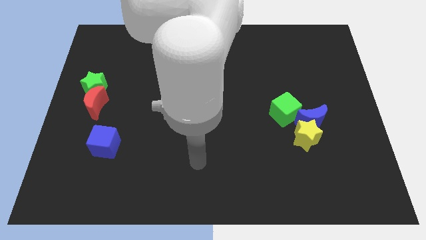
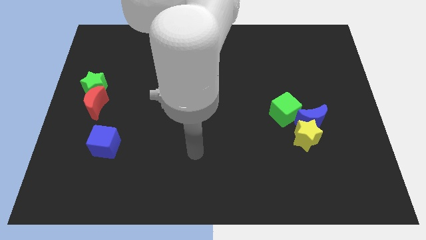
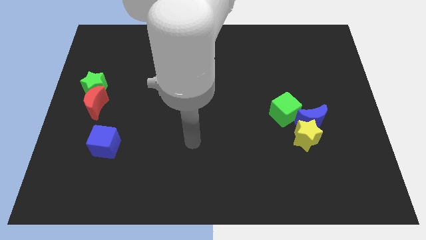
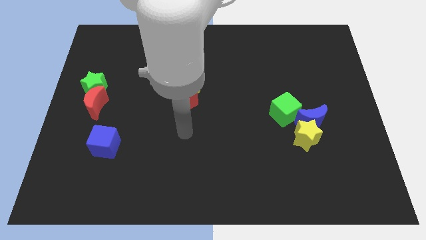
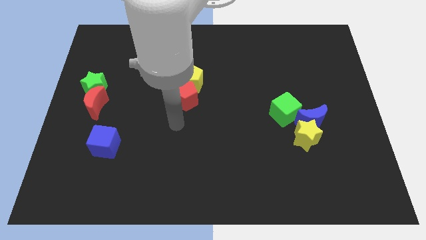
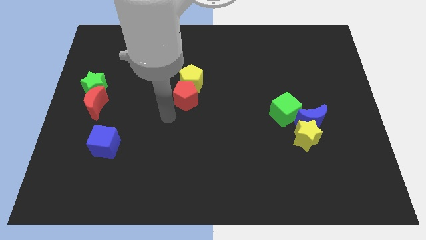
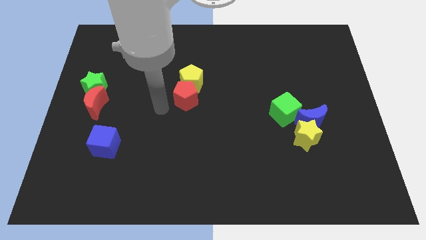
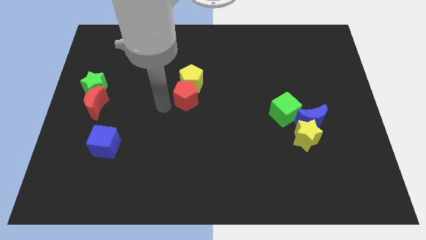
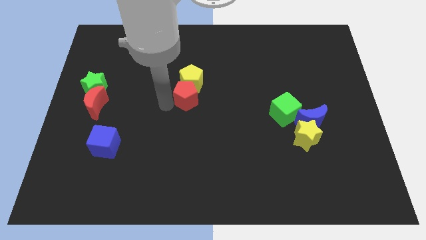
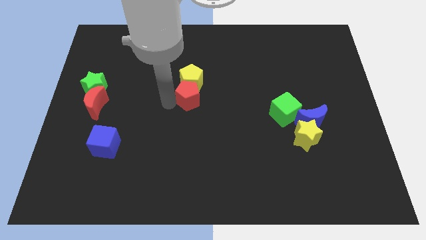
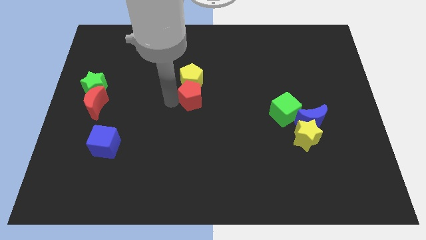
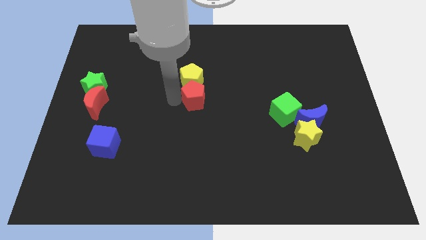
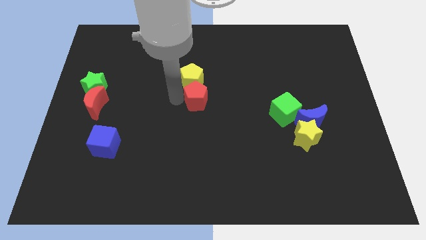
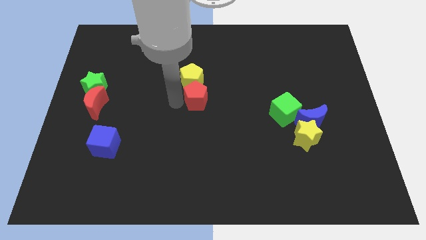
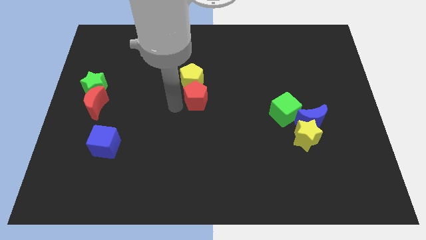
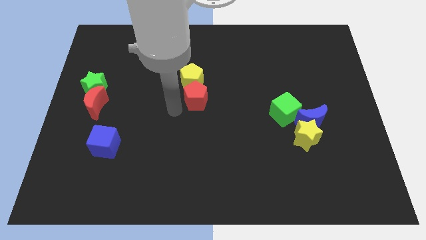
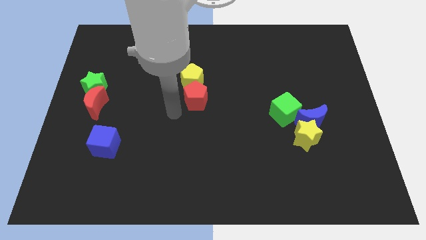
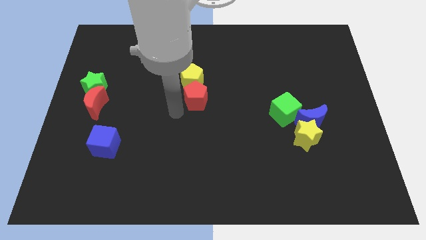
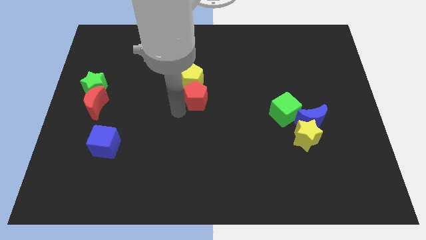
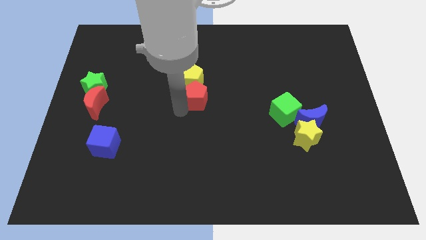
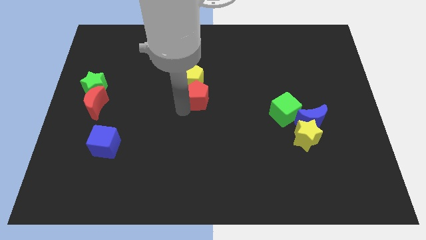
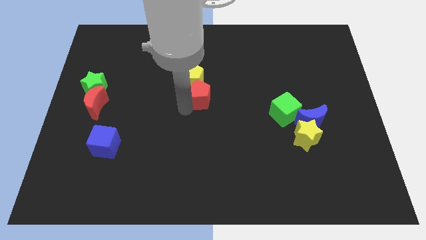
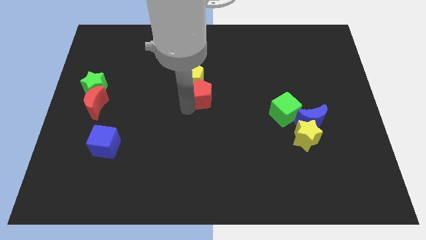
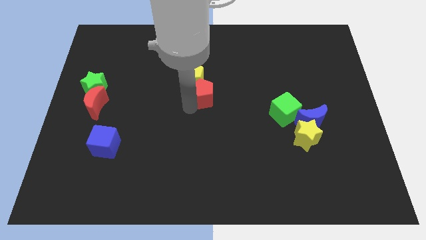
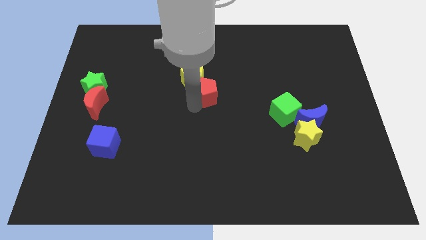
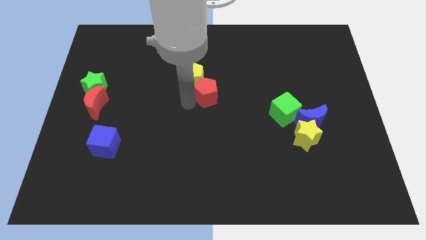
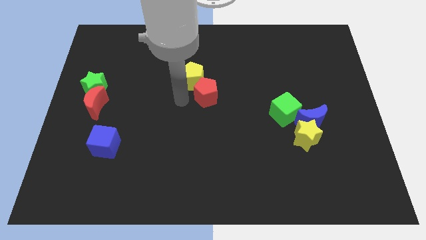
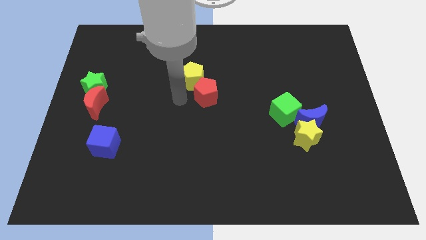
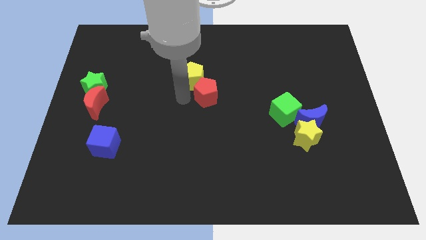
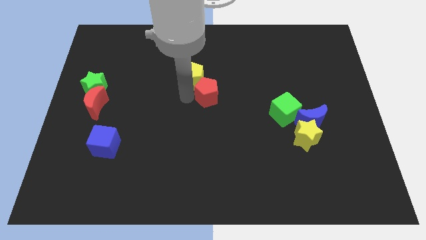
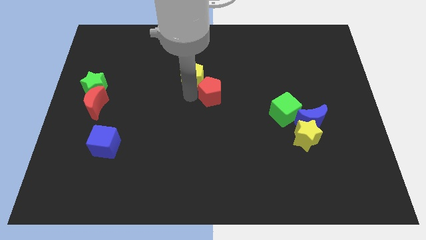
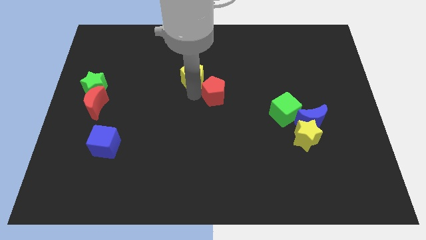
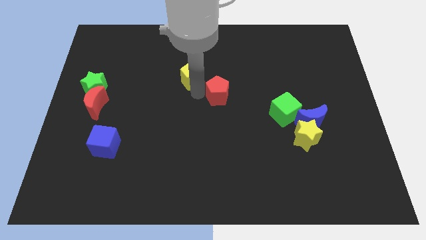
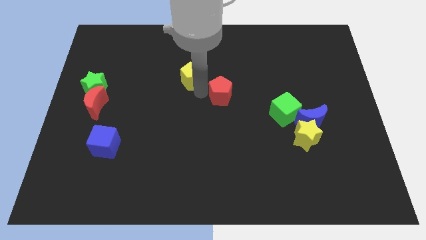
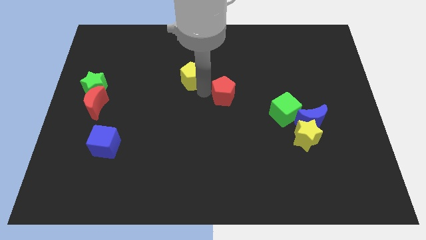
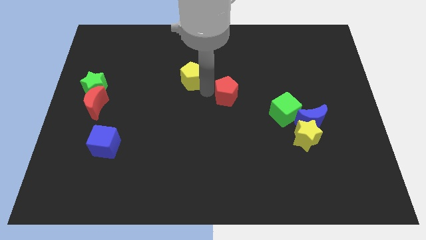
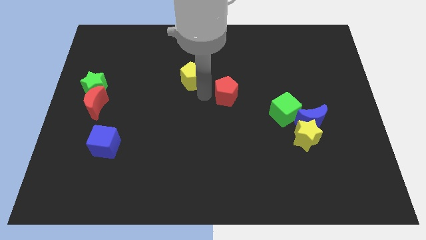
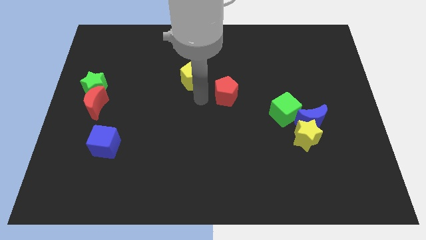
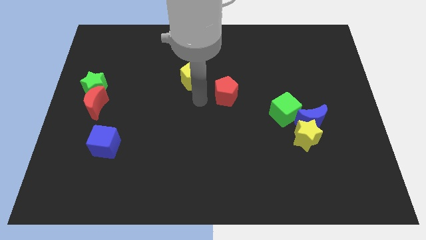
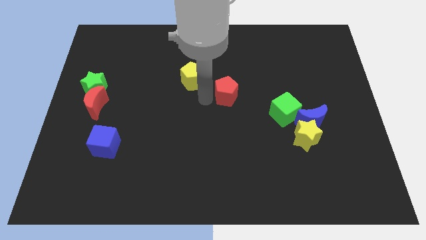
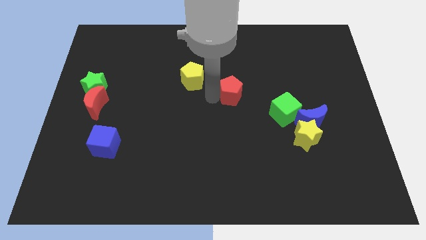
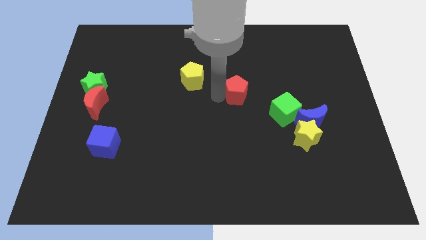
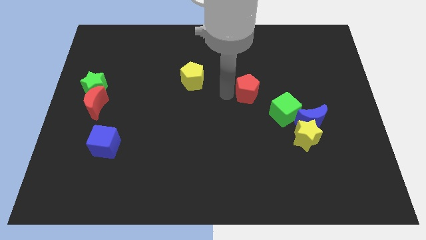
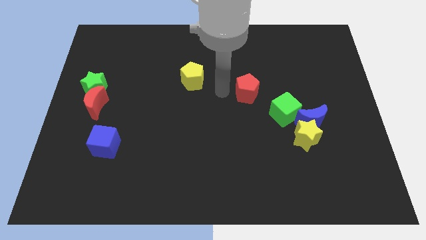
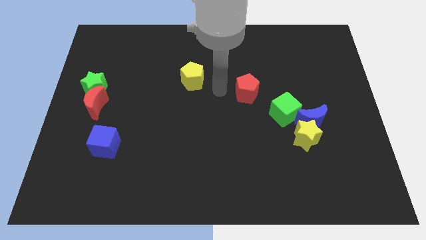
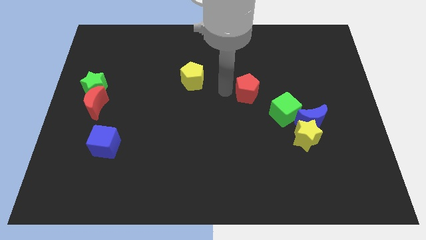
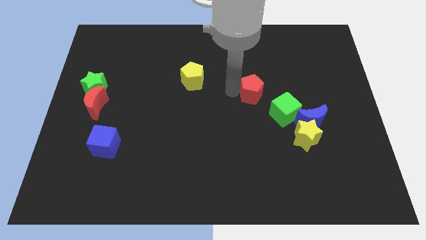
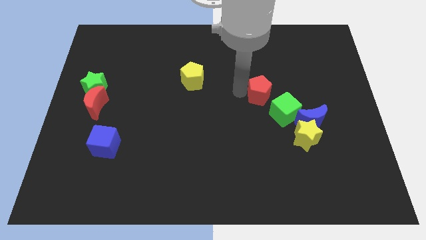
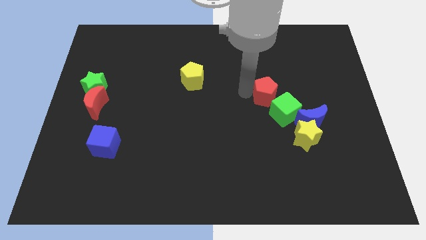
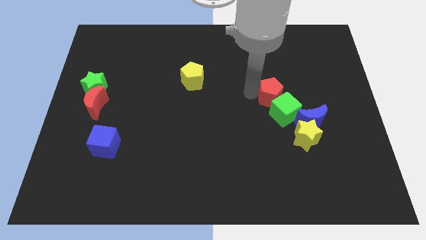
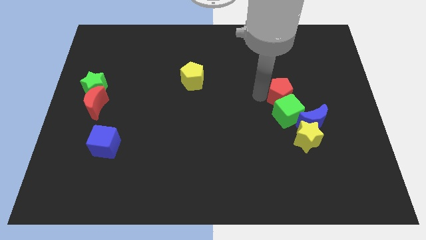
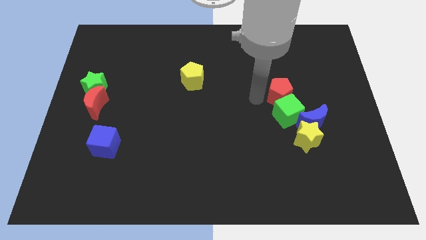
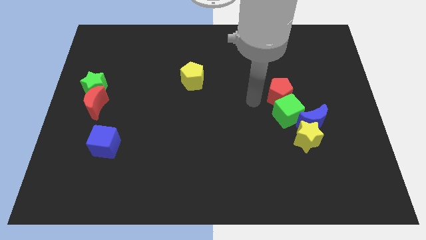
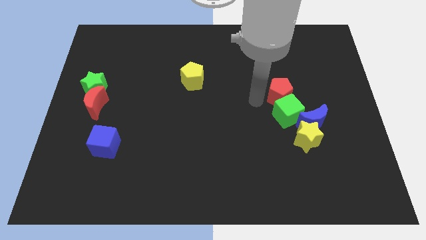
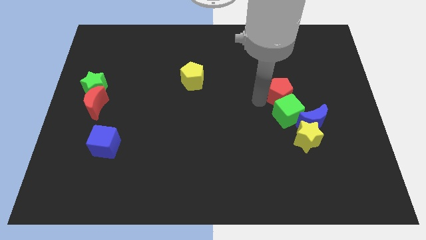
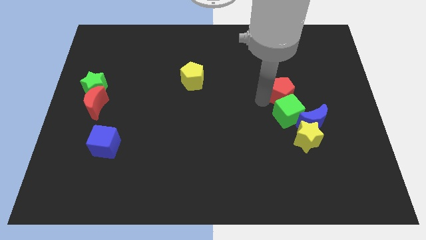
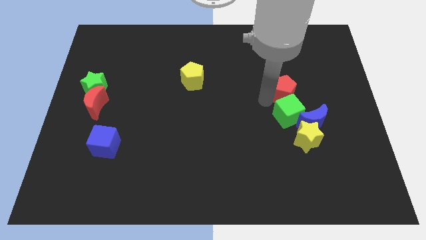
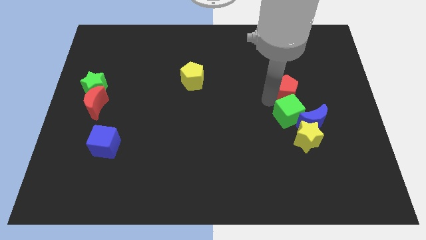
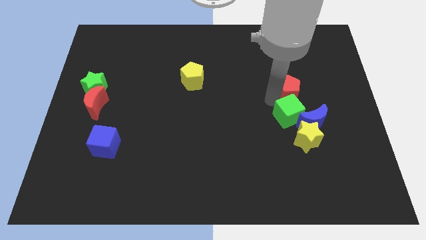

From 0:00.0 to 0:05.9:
push the red pentagon to the top side of the blue moon

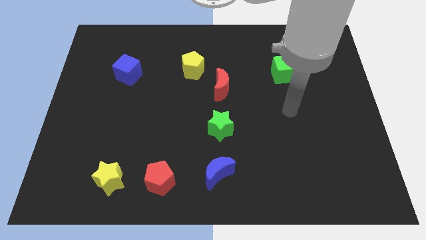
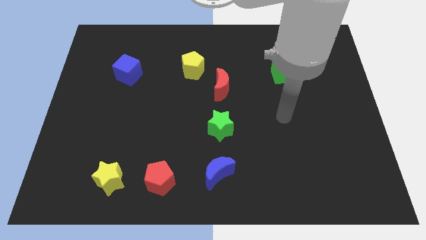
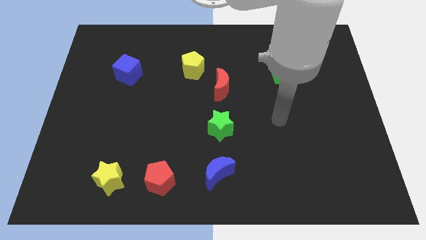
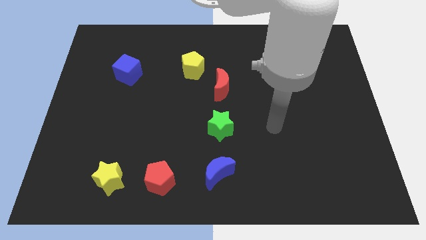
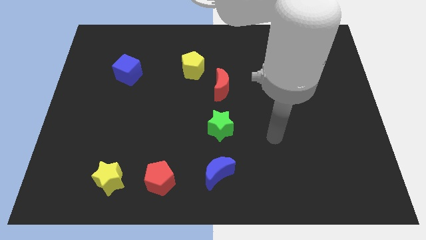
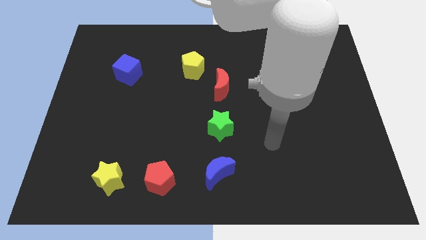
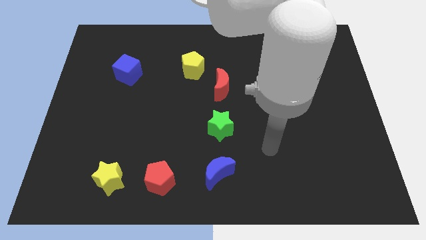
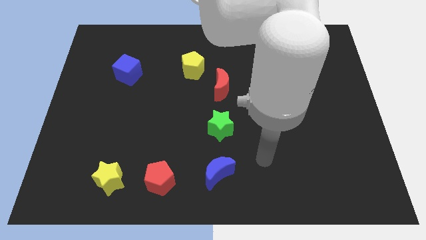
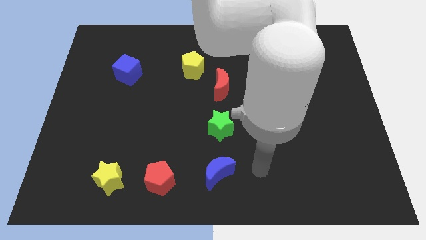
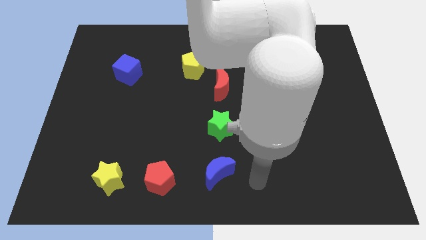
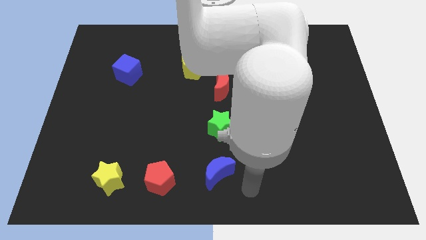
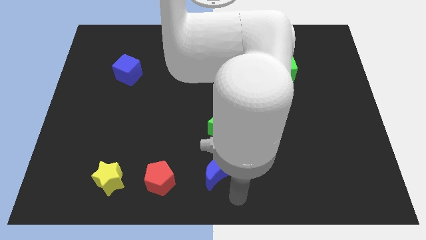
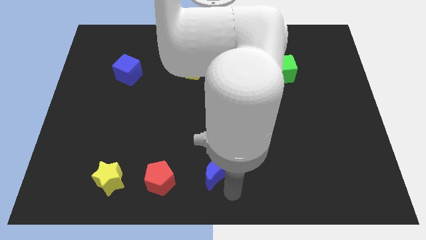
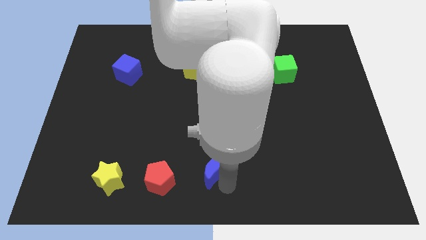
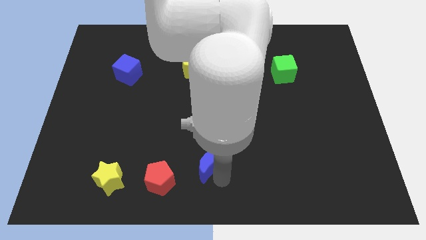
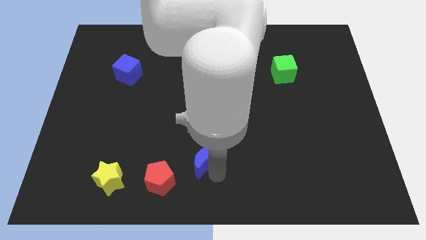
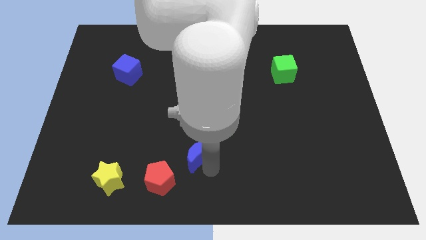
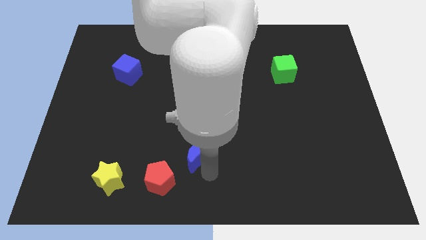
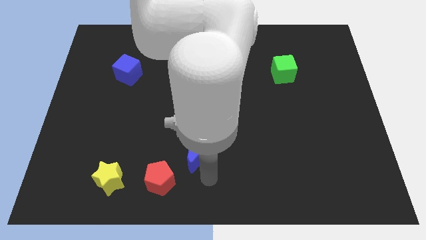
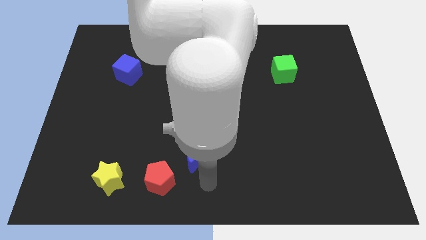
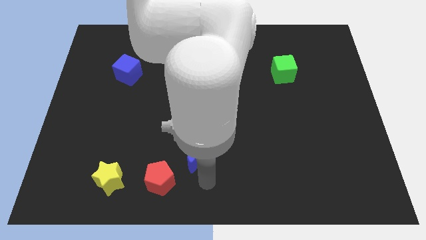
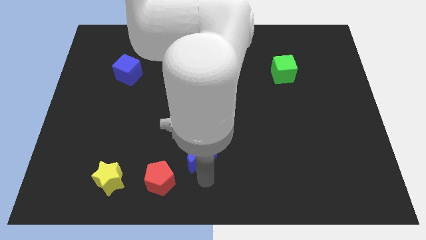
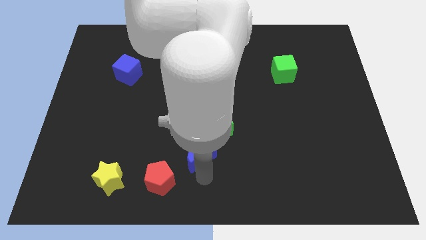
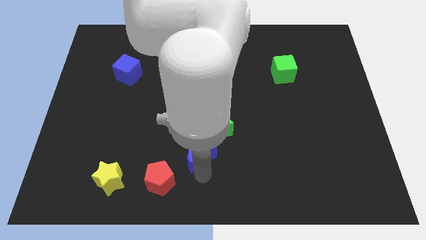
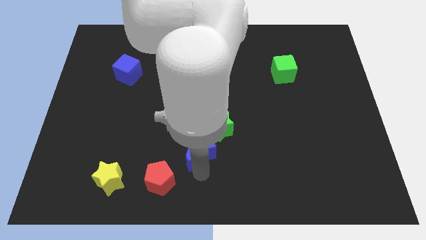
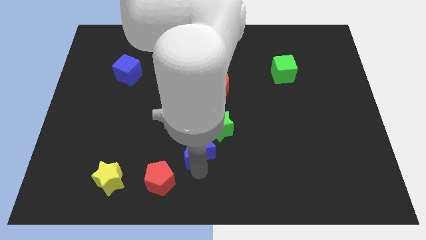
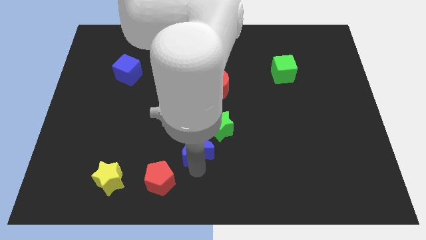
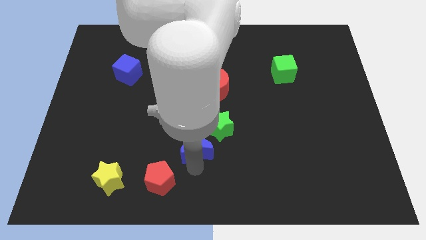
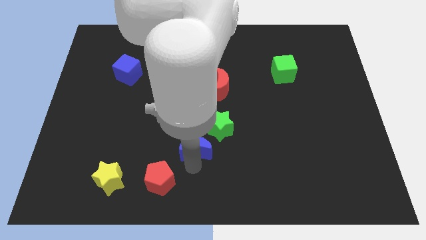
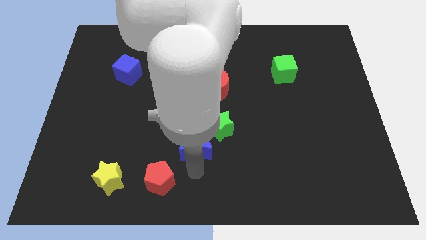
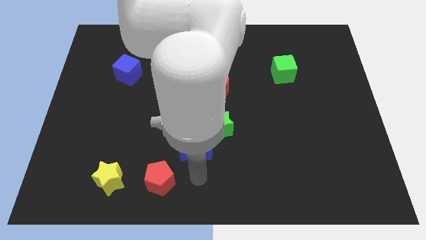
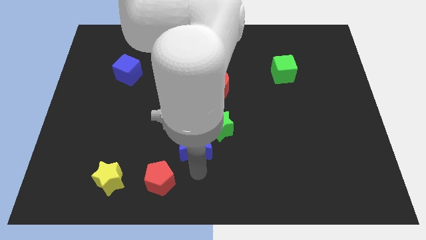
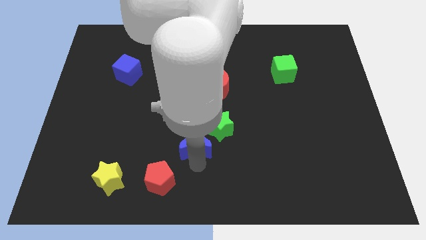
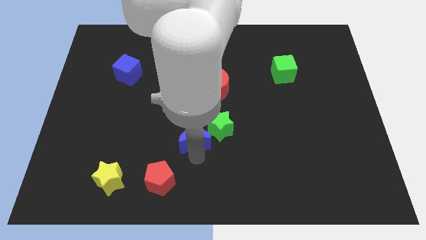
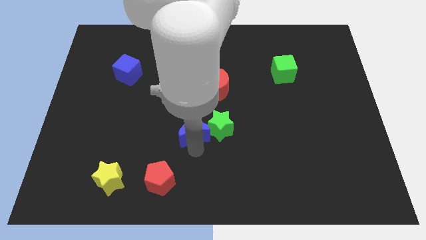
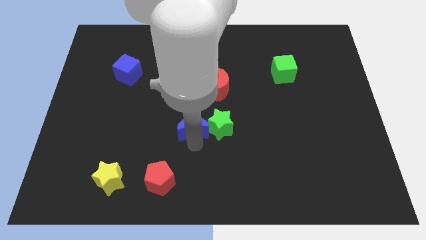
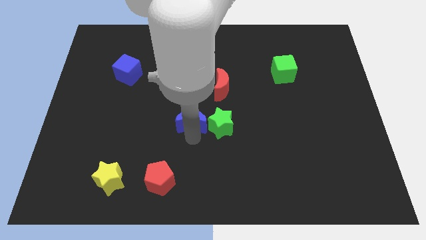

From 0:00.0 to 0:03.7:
move the blue moon to the top left of the green star
